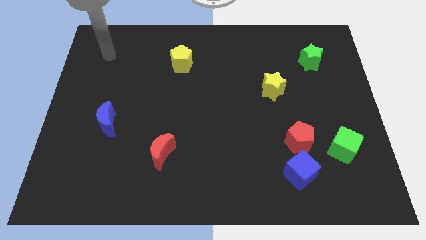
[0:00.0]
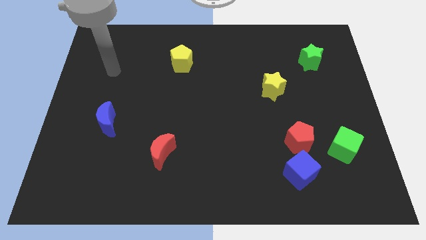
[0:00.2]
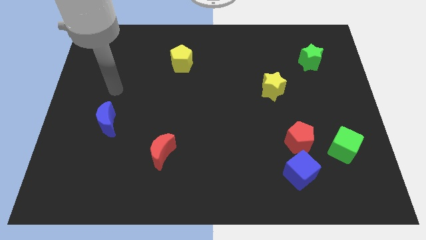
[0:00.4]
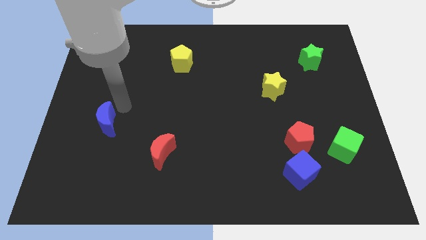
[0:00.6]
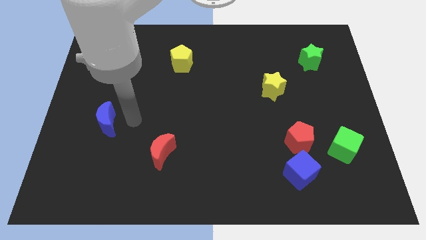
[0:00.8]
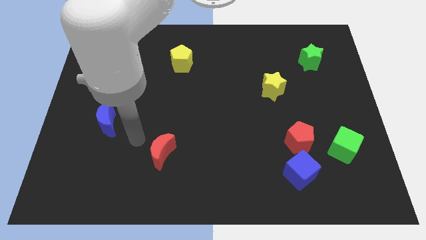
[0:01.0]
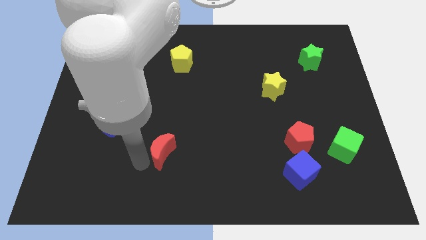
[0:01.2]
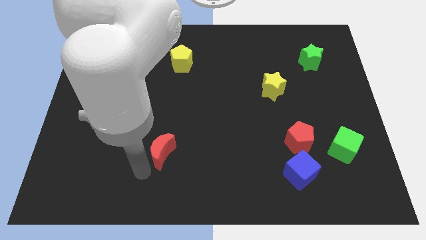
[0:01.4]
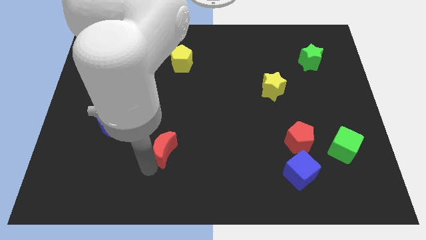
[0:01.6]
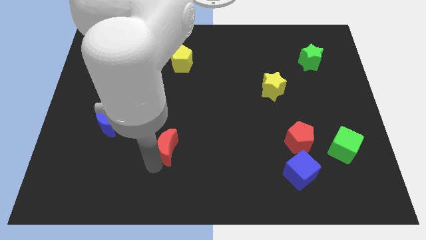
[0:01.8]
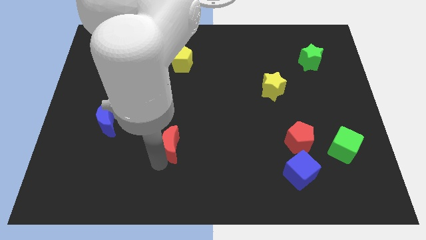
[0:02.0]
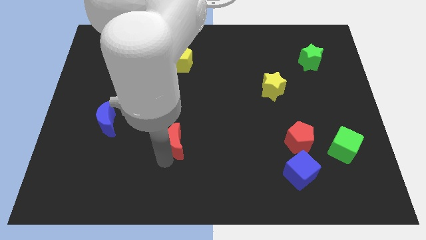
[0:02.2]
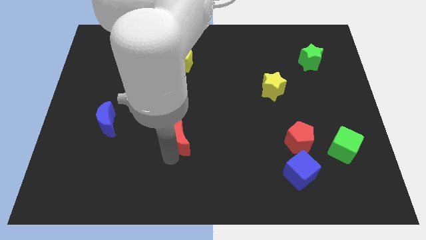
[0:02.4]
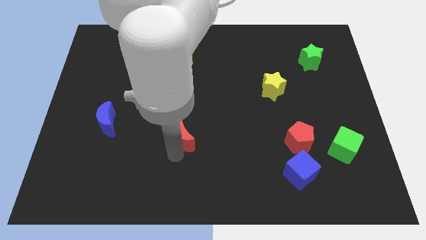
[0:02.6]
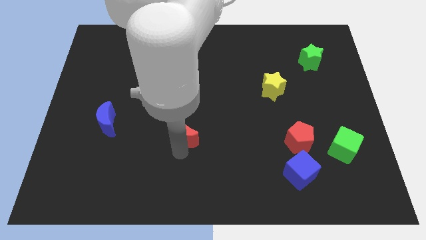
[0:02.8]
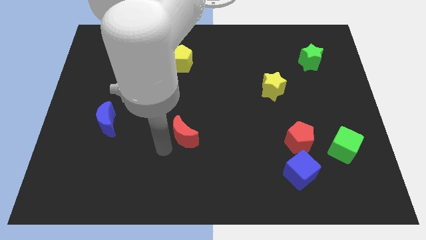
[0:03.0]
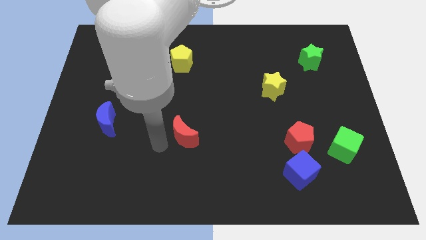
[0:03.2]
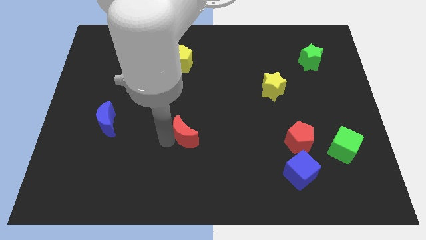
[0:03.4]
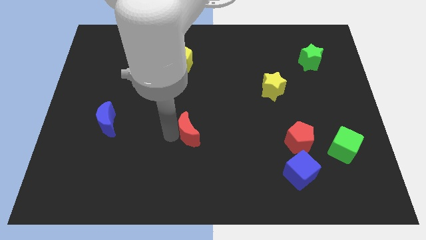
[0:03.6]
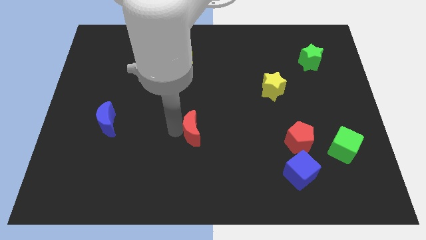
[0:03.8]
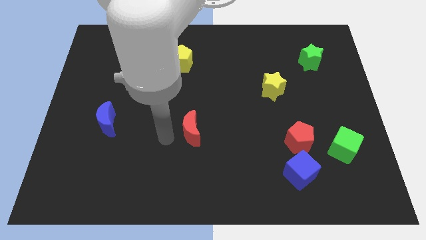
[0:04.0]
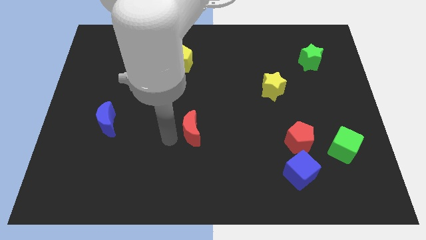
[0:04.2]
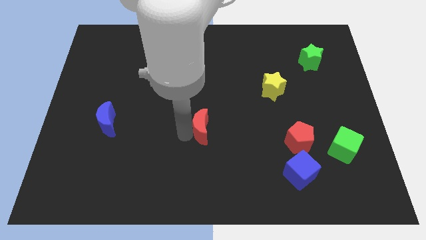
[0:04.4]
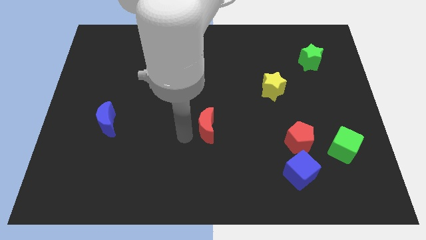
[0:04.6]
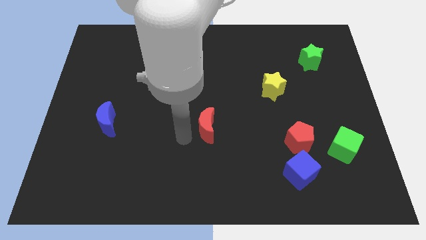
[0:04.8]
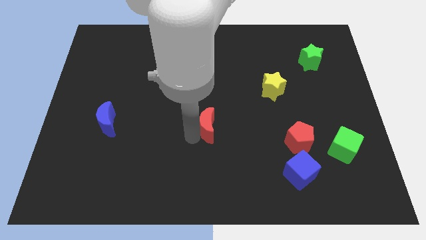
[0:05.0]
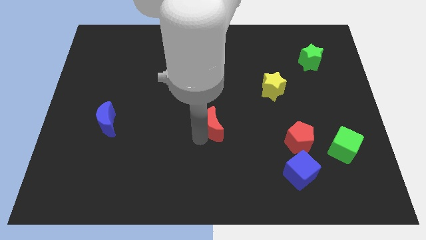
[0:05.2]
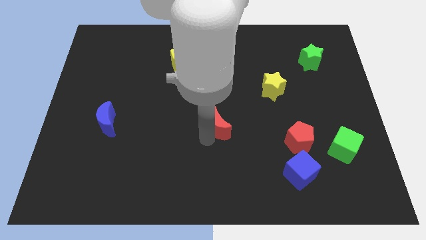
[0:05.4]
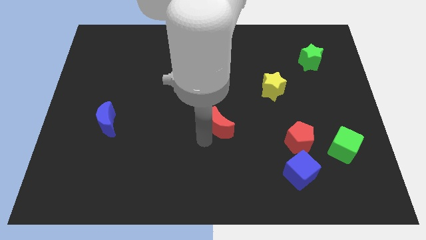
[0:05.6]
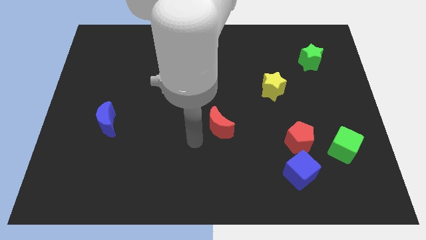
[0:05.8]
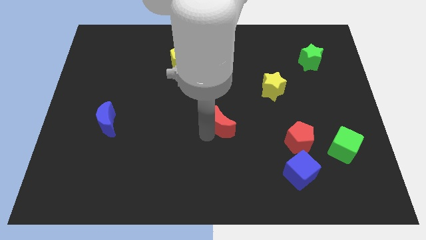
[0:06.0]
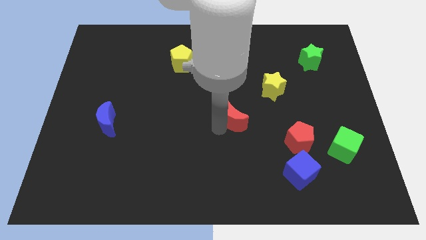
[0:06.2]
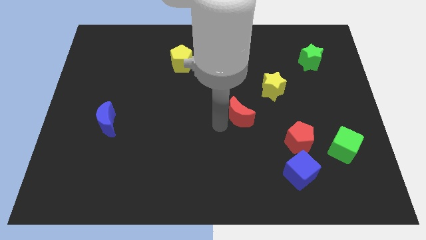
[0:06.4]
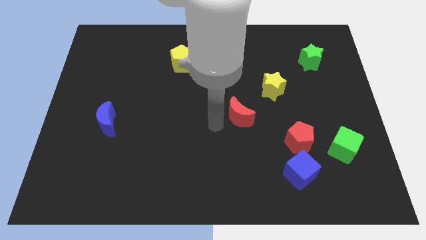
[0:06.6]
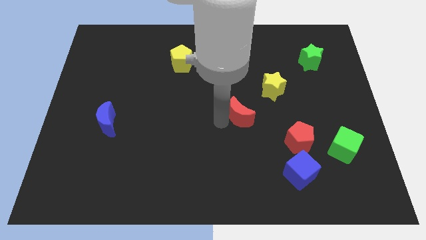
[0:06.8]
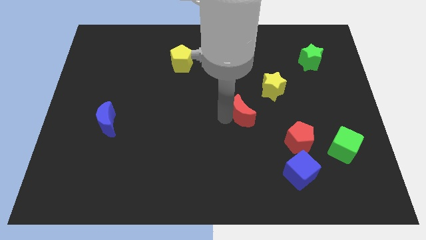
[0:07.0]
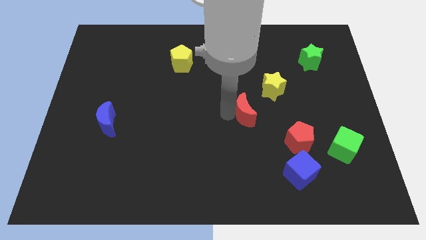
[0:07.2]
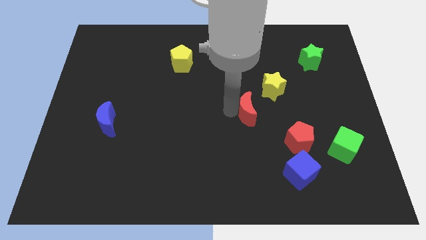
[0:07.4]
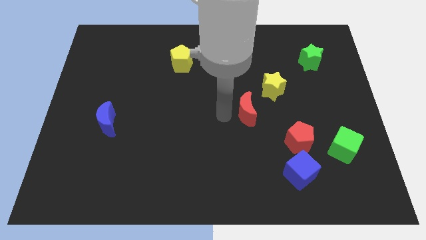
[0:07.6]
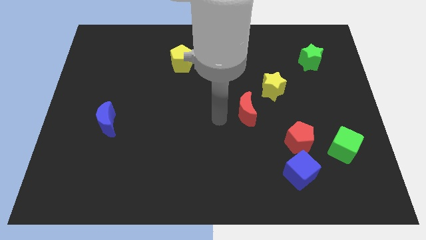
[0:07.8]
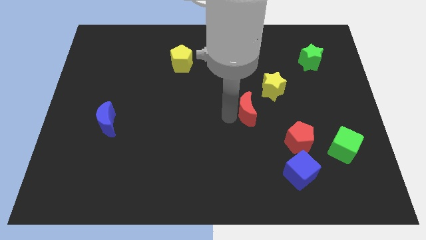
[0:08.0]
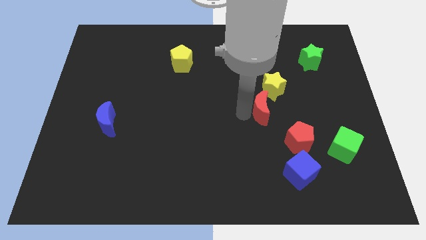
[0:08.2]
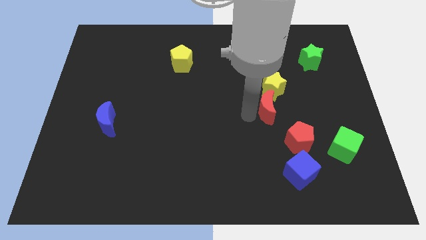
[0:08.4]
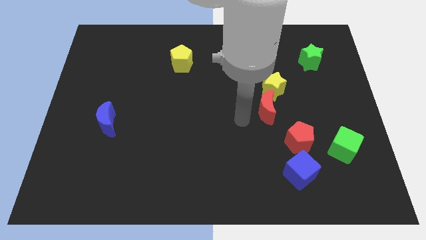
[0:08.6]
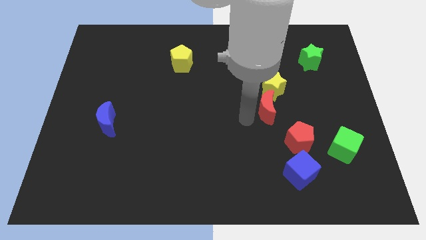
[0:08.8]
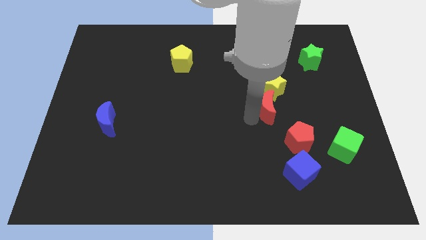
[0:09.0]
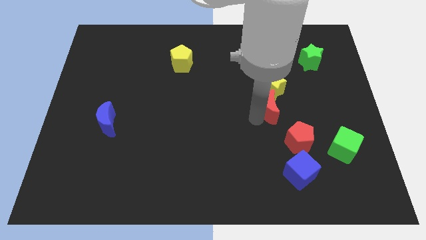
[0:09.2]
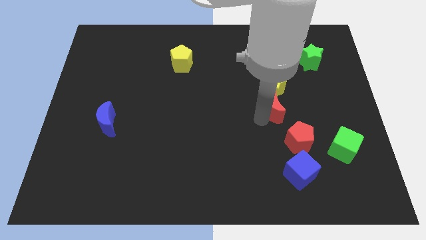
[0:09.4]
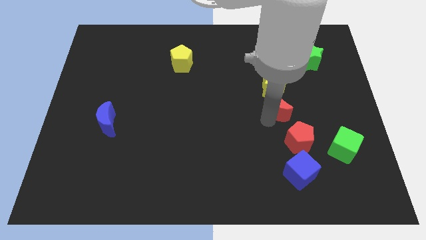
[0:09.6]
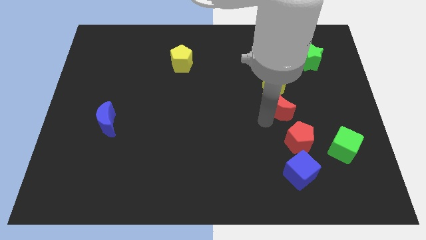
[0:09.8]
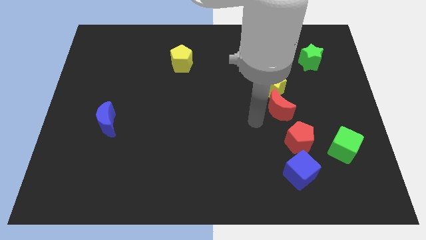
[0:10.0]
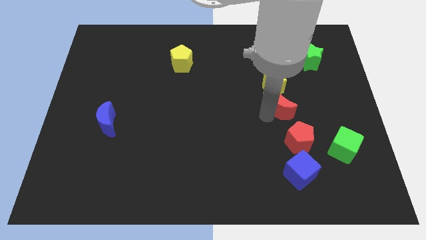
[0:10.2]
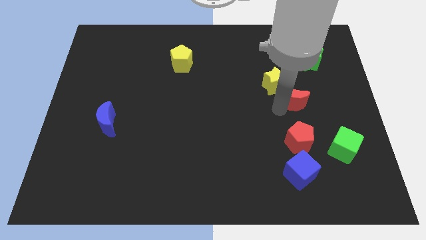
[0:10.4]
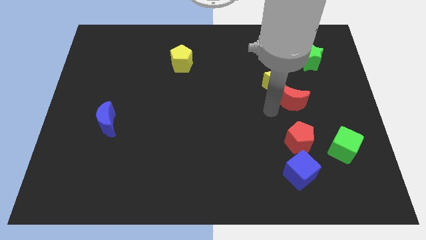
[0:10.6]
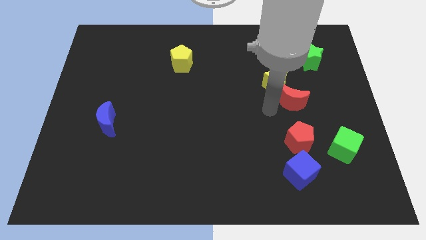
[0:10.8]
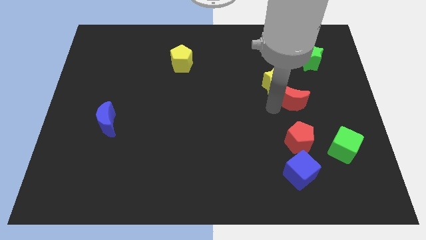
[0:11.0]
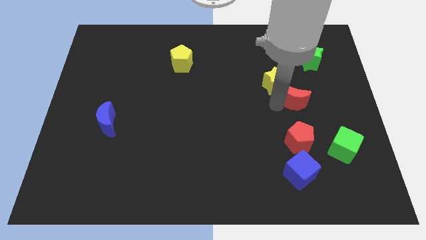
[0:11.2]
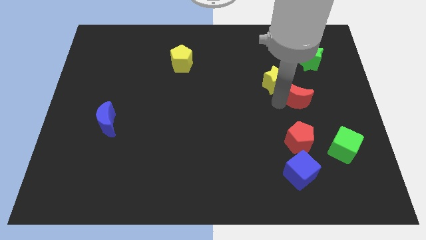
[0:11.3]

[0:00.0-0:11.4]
push the red moon to the right of the yellow star
